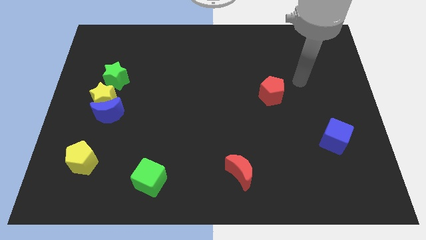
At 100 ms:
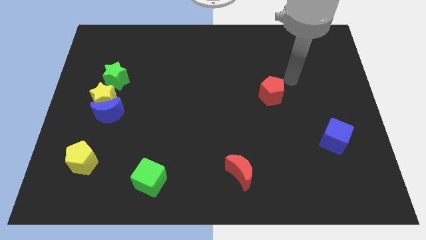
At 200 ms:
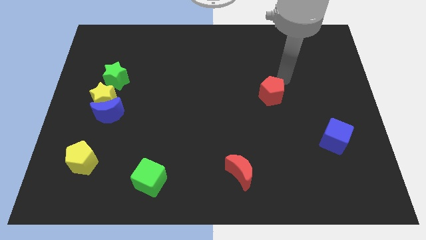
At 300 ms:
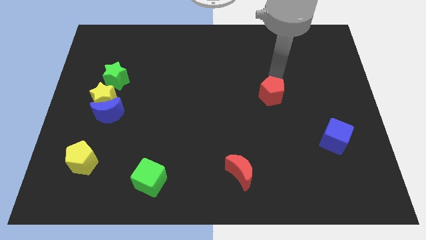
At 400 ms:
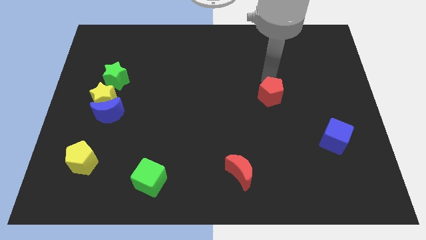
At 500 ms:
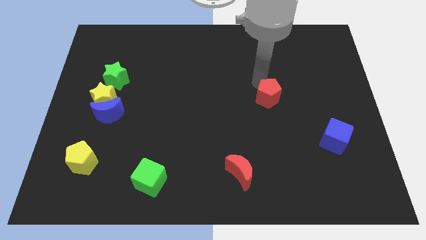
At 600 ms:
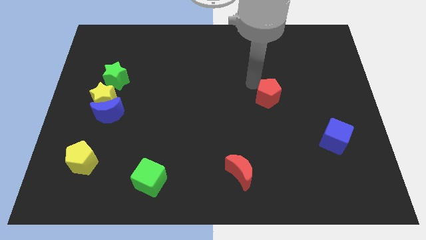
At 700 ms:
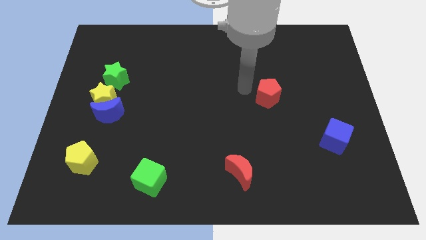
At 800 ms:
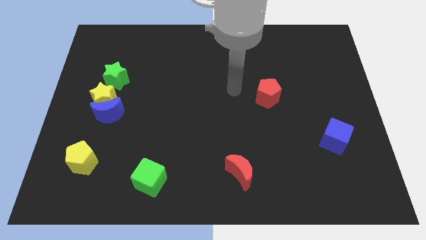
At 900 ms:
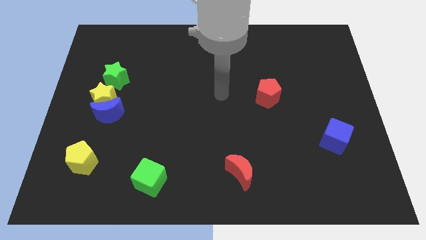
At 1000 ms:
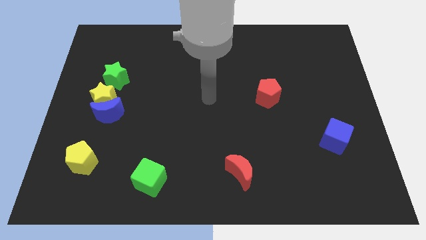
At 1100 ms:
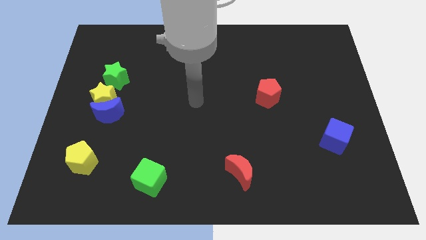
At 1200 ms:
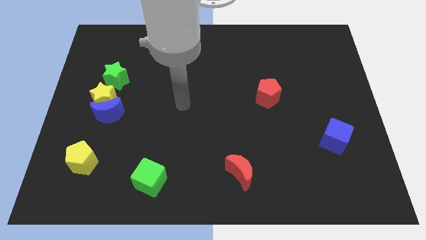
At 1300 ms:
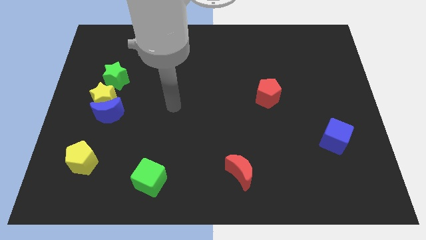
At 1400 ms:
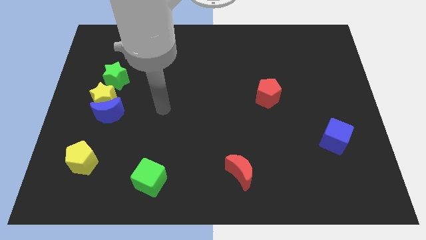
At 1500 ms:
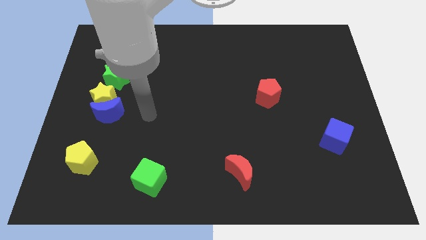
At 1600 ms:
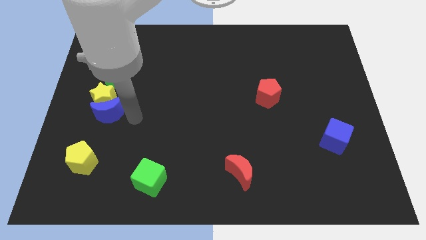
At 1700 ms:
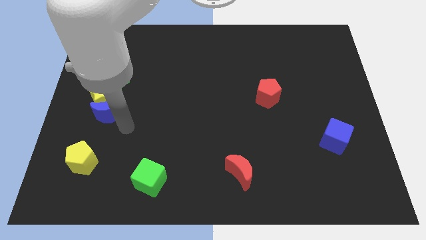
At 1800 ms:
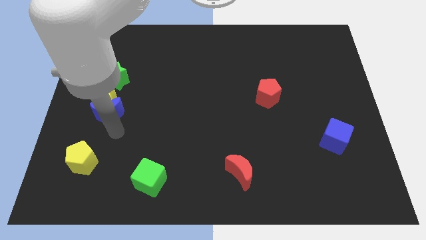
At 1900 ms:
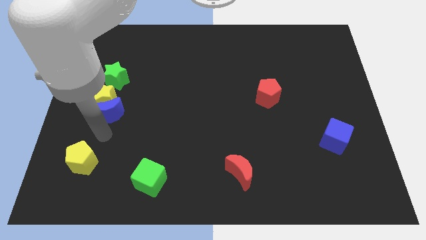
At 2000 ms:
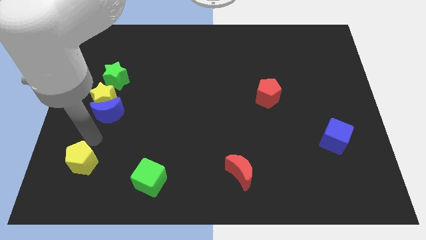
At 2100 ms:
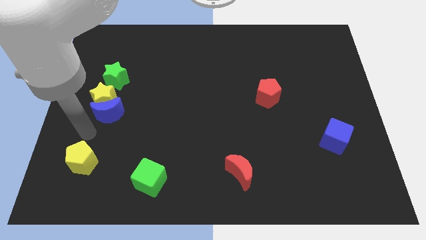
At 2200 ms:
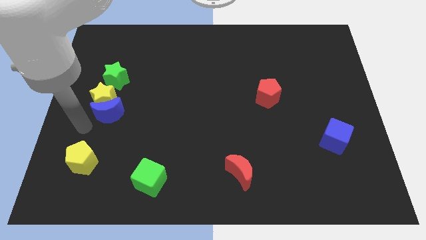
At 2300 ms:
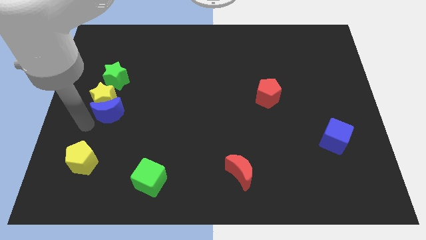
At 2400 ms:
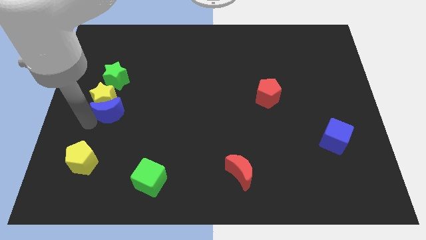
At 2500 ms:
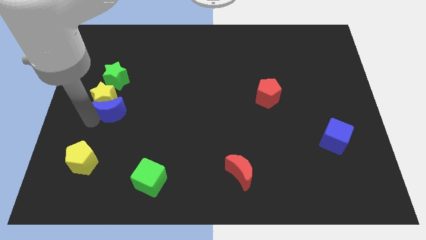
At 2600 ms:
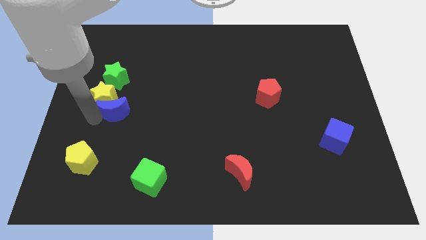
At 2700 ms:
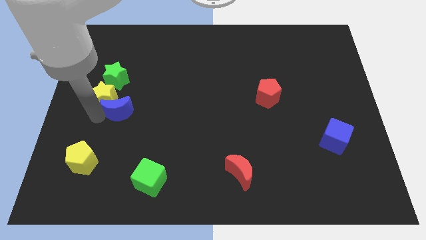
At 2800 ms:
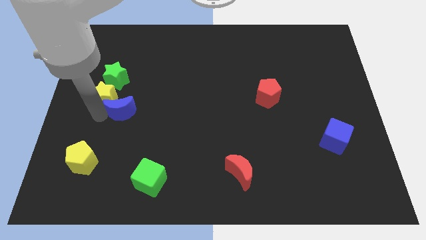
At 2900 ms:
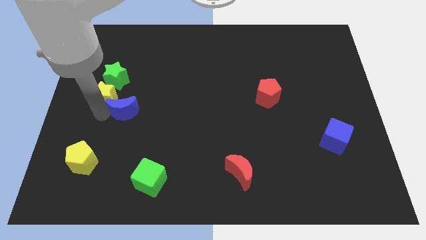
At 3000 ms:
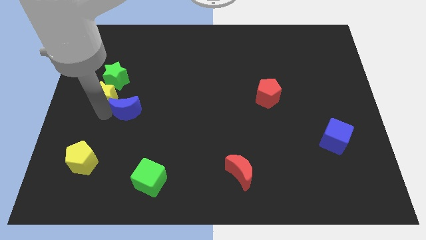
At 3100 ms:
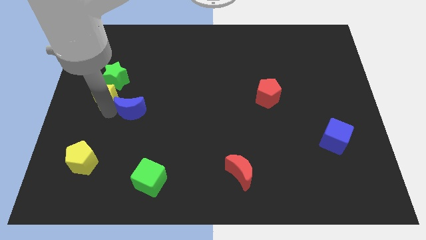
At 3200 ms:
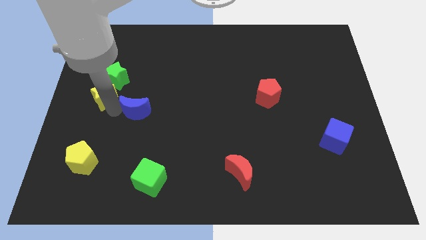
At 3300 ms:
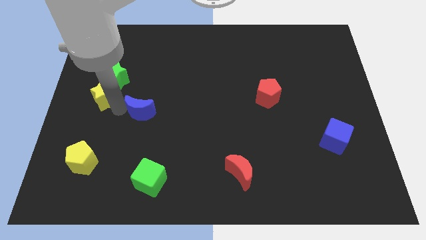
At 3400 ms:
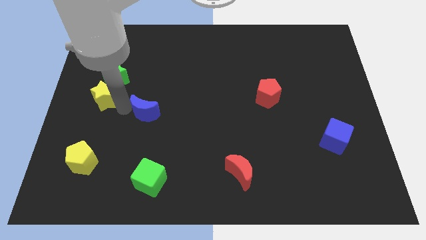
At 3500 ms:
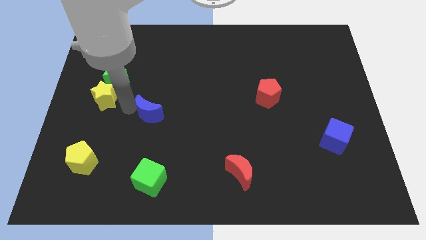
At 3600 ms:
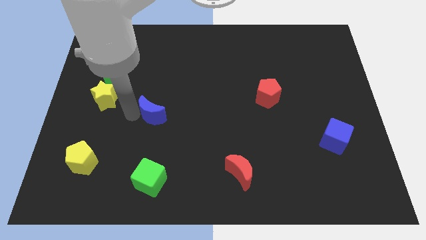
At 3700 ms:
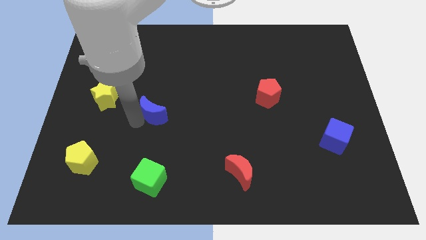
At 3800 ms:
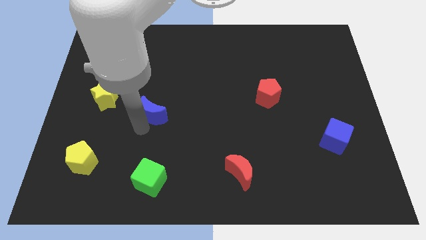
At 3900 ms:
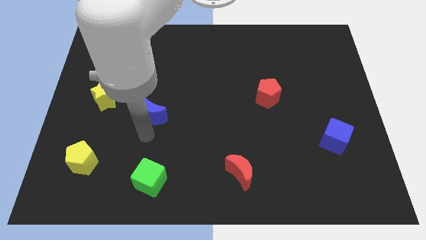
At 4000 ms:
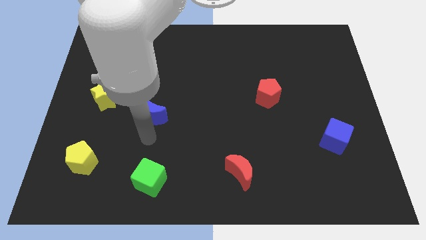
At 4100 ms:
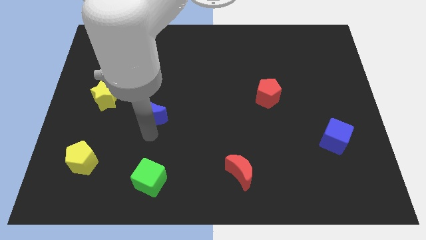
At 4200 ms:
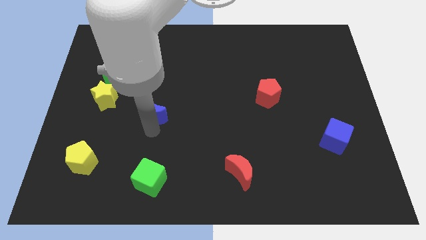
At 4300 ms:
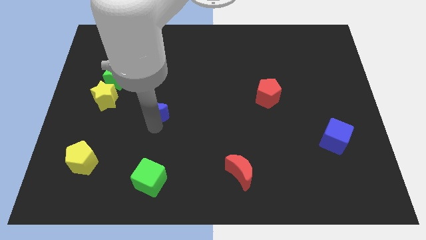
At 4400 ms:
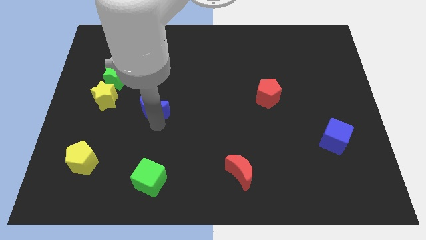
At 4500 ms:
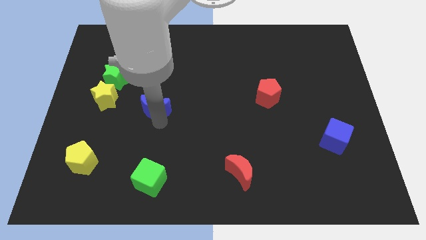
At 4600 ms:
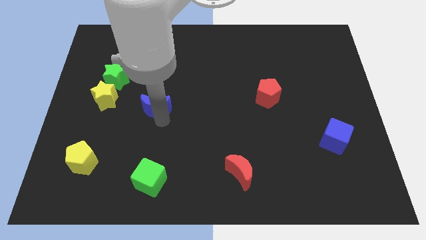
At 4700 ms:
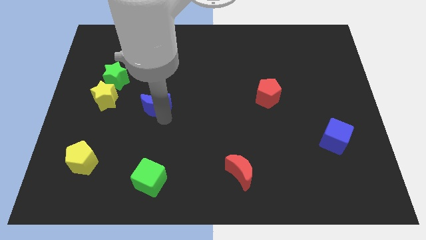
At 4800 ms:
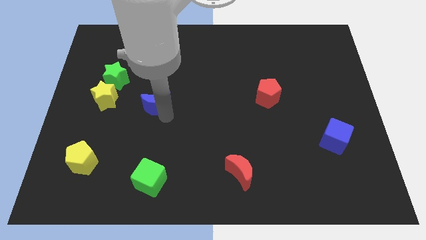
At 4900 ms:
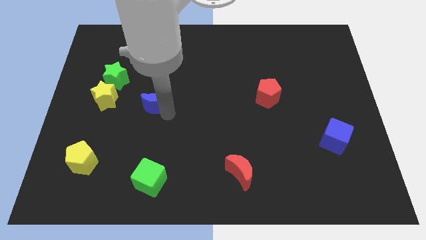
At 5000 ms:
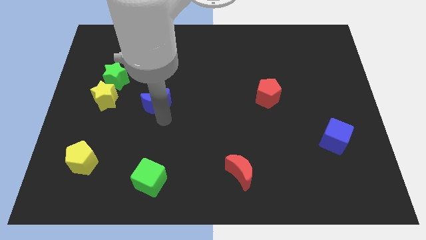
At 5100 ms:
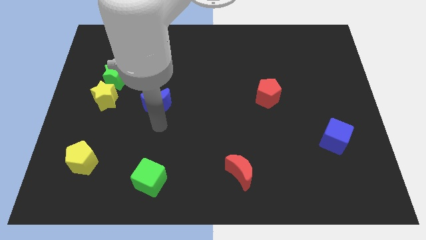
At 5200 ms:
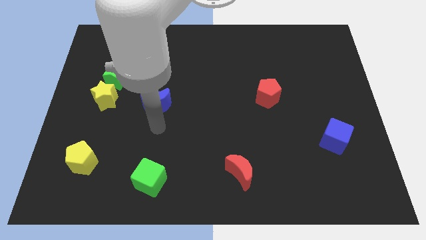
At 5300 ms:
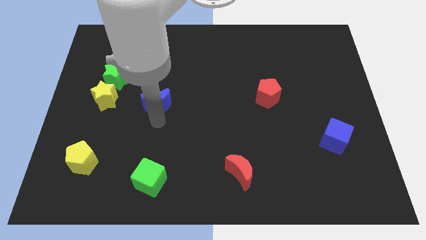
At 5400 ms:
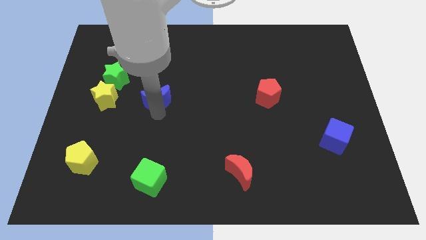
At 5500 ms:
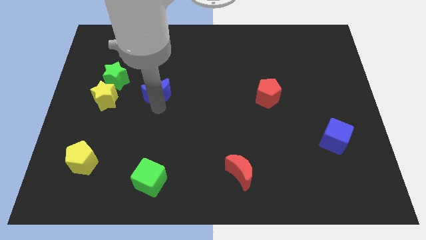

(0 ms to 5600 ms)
move the blue moon to the right of the green star

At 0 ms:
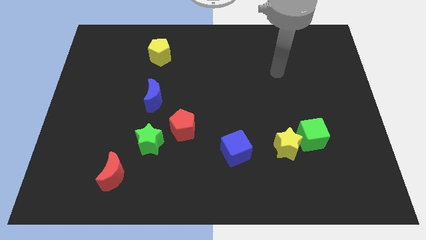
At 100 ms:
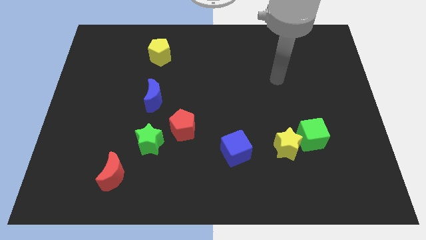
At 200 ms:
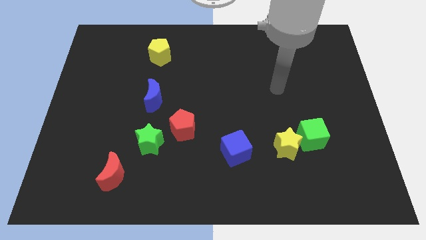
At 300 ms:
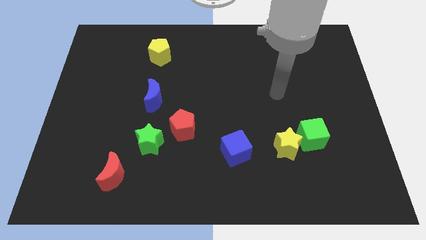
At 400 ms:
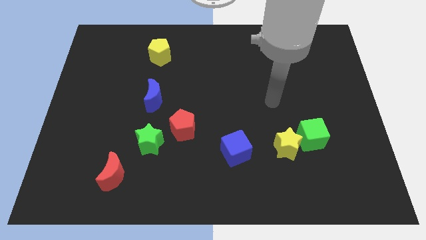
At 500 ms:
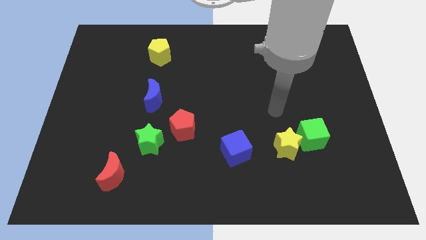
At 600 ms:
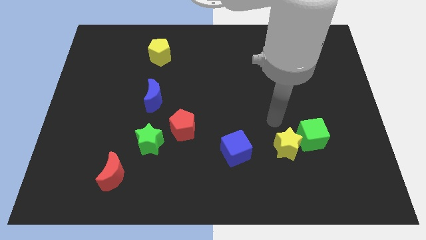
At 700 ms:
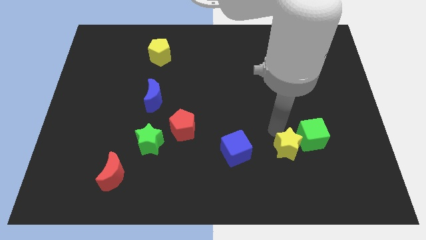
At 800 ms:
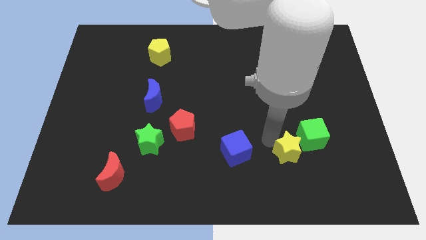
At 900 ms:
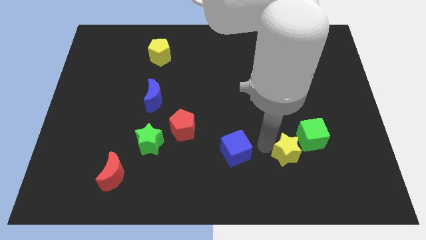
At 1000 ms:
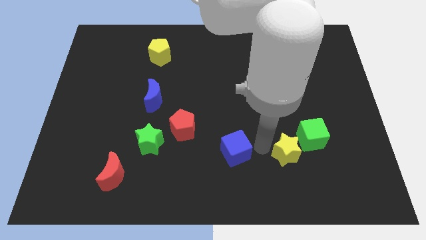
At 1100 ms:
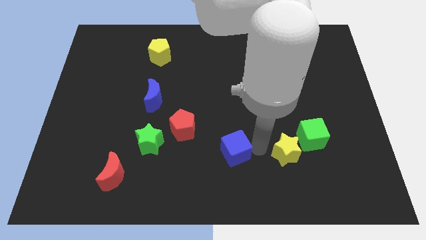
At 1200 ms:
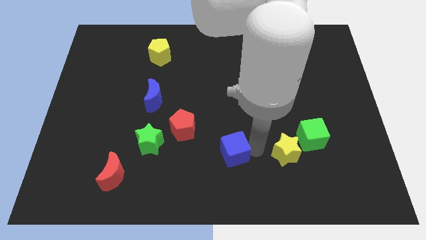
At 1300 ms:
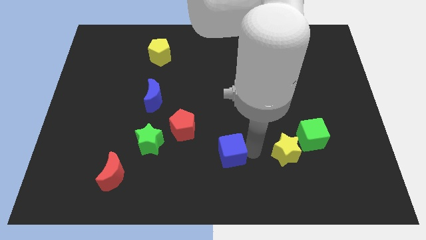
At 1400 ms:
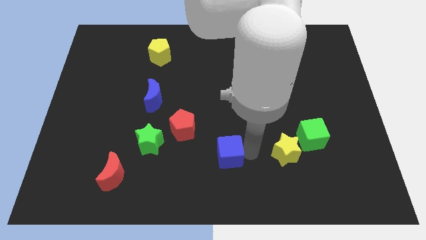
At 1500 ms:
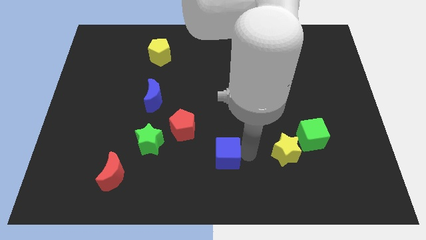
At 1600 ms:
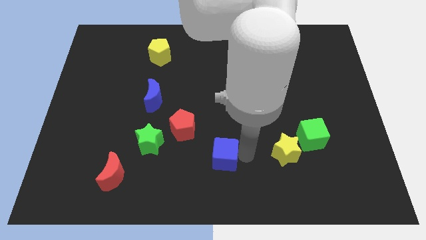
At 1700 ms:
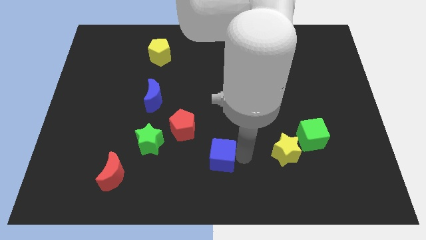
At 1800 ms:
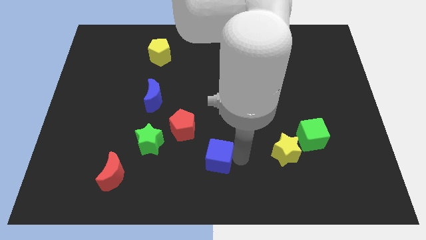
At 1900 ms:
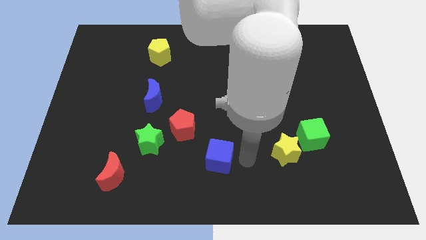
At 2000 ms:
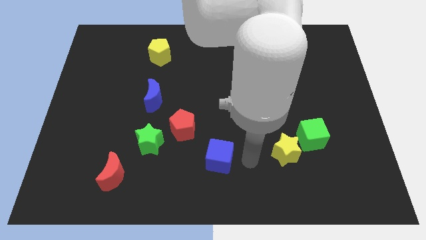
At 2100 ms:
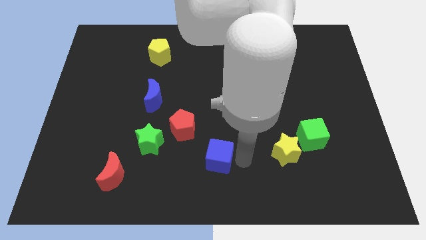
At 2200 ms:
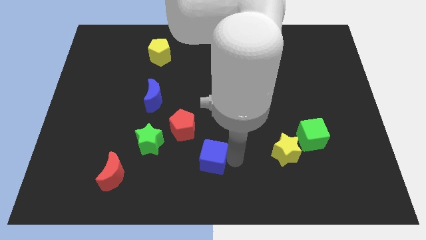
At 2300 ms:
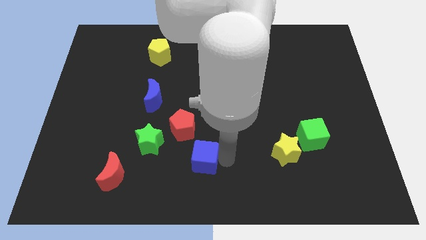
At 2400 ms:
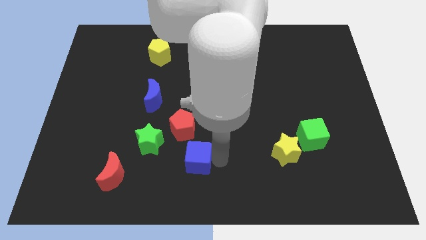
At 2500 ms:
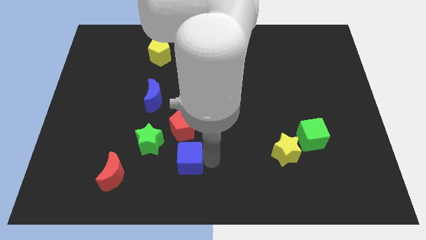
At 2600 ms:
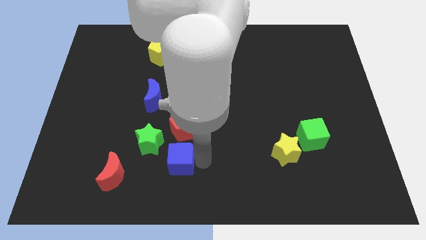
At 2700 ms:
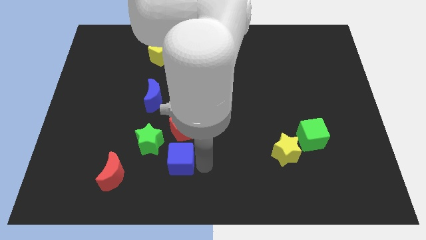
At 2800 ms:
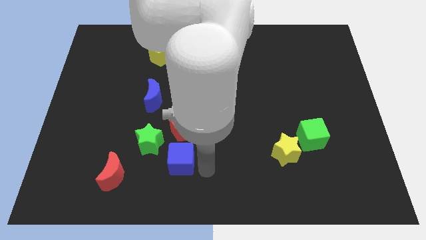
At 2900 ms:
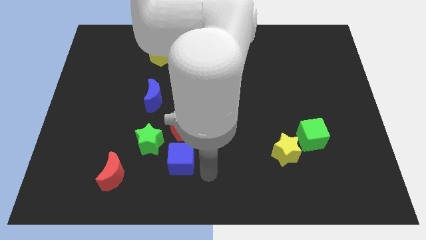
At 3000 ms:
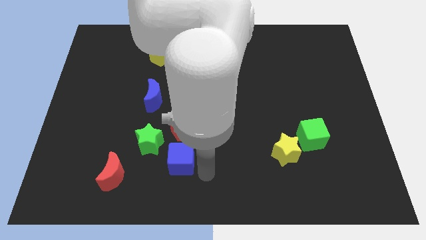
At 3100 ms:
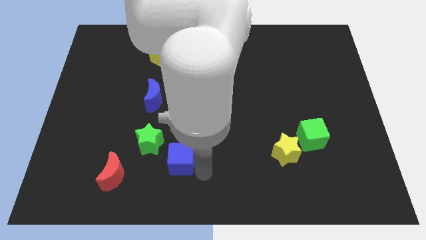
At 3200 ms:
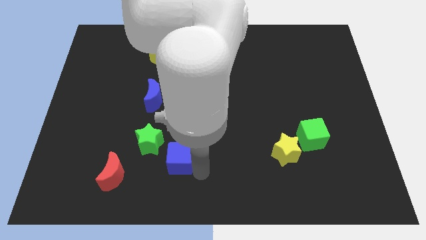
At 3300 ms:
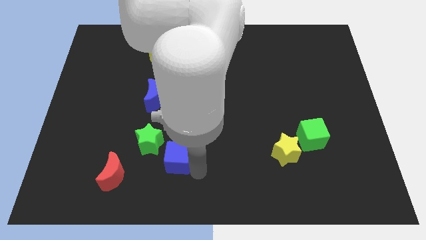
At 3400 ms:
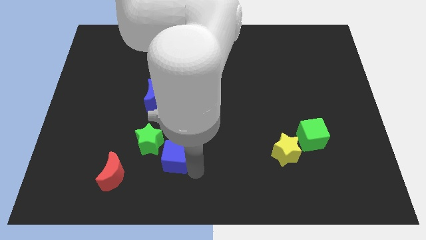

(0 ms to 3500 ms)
put the blue cube to the bottom left of the red pentagon
